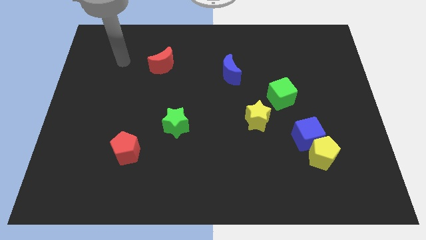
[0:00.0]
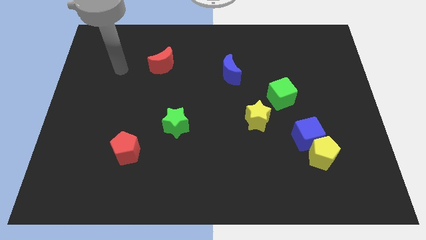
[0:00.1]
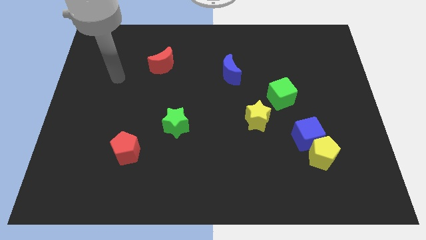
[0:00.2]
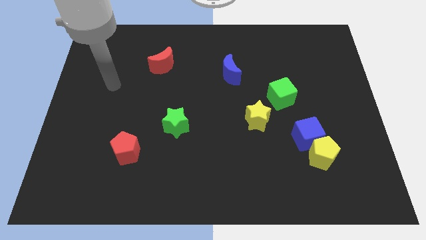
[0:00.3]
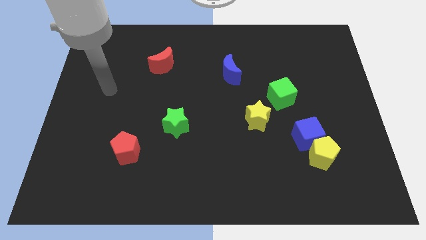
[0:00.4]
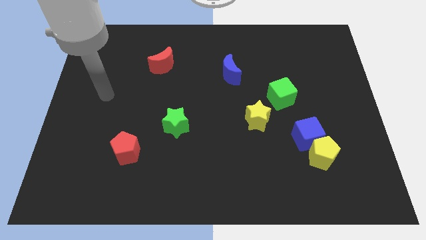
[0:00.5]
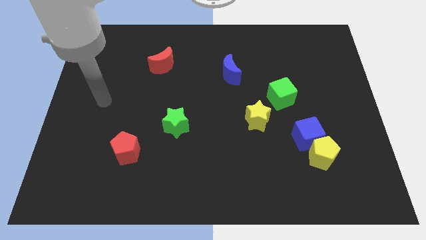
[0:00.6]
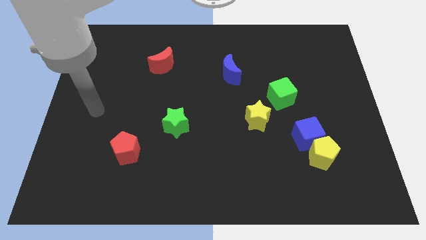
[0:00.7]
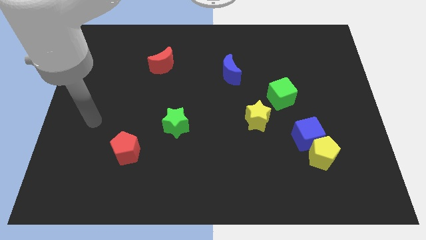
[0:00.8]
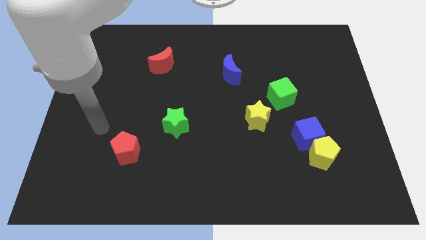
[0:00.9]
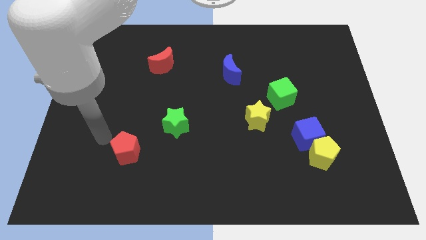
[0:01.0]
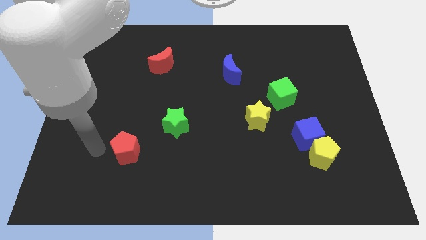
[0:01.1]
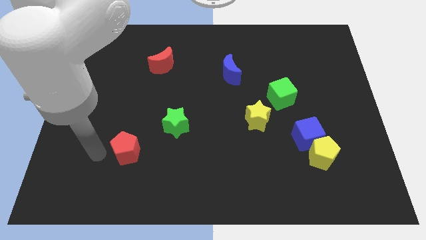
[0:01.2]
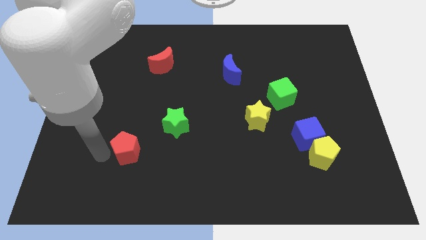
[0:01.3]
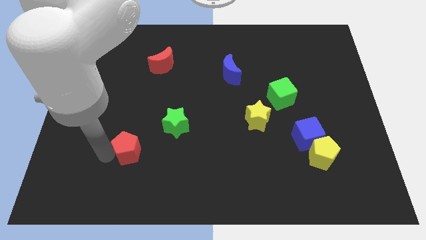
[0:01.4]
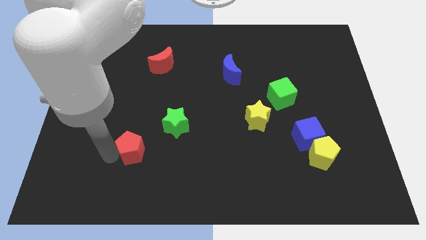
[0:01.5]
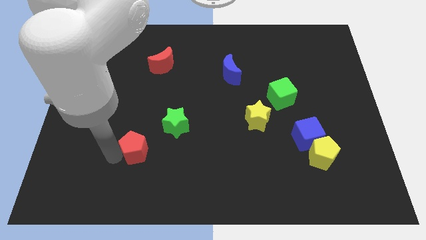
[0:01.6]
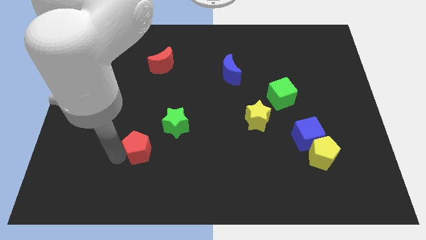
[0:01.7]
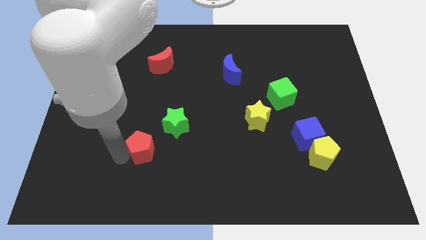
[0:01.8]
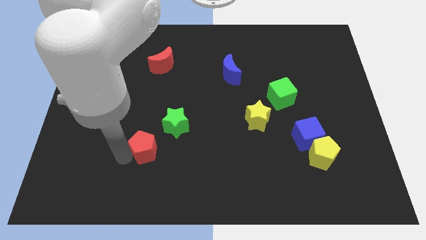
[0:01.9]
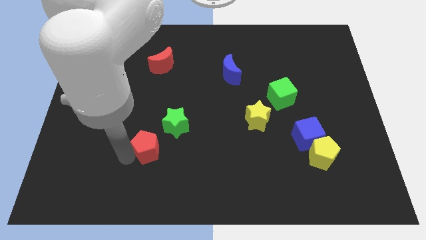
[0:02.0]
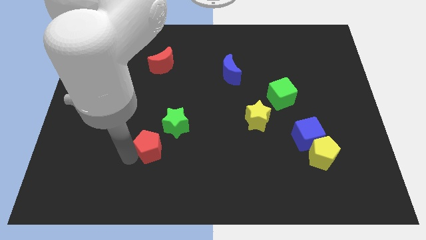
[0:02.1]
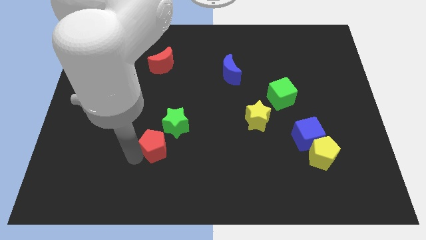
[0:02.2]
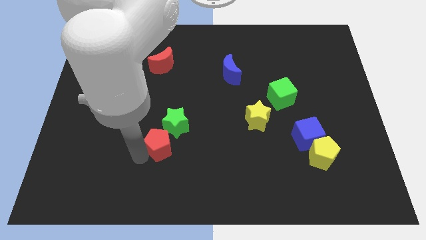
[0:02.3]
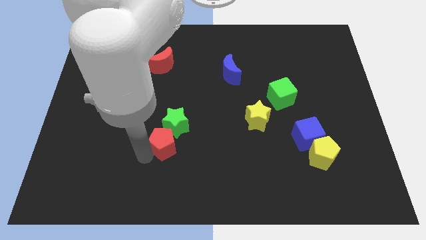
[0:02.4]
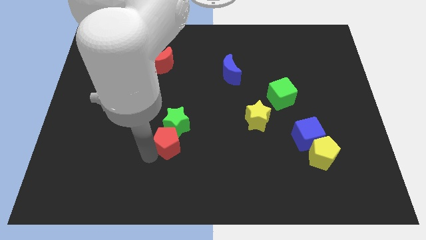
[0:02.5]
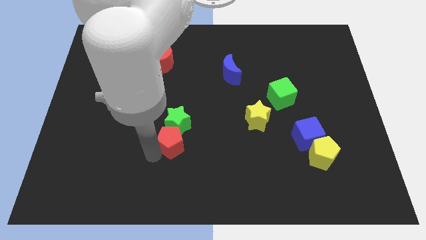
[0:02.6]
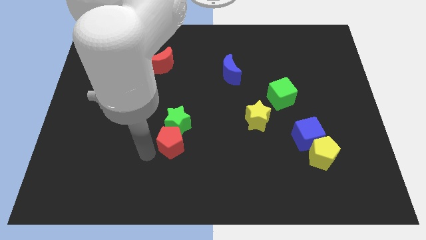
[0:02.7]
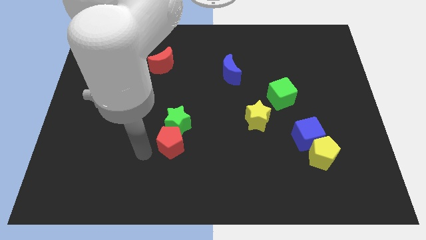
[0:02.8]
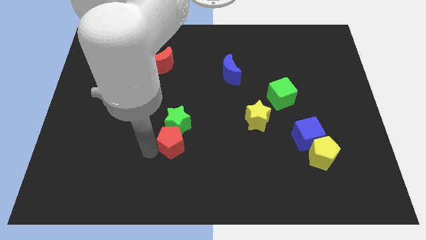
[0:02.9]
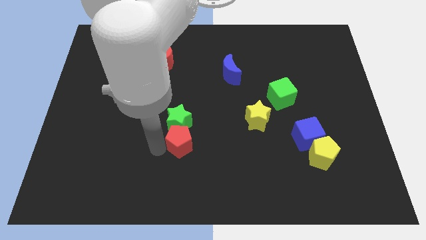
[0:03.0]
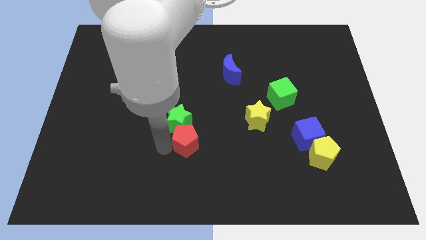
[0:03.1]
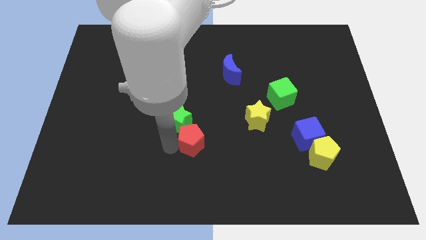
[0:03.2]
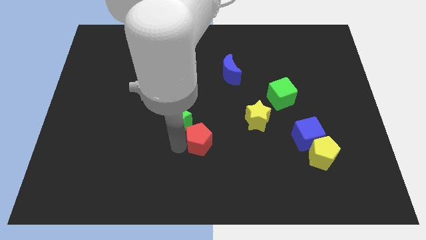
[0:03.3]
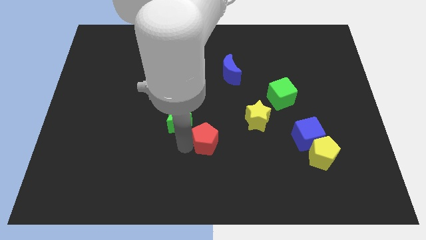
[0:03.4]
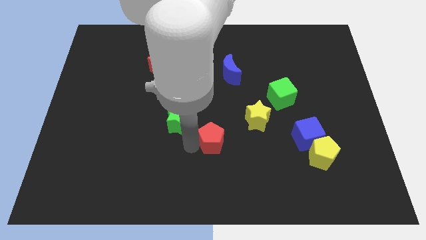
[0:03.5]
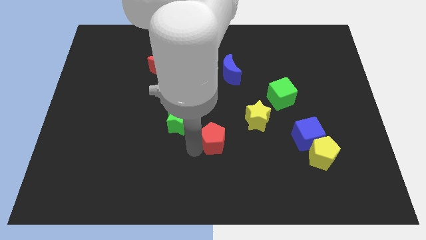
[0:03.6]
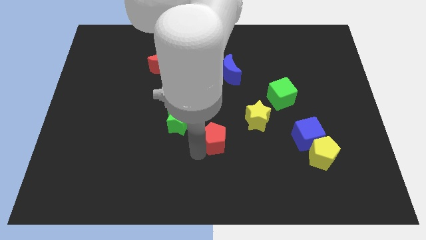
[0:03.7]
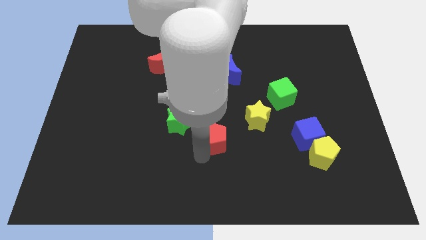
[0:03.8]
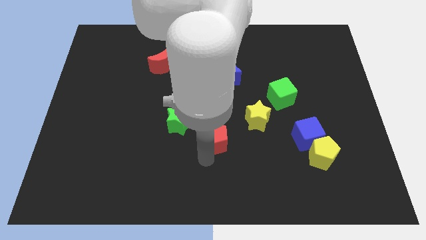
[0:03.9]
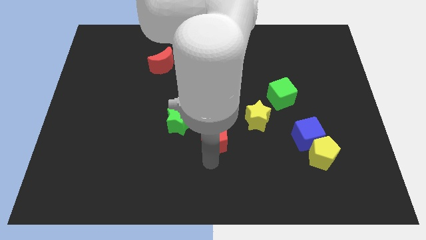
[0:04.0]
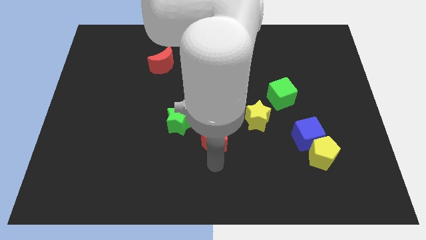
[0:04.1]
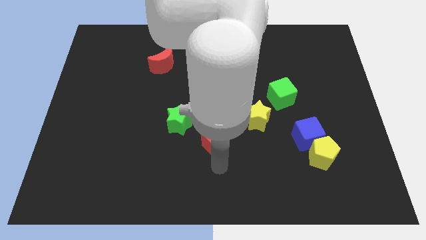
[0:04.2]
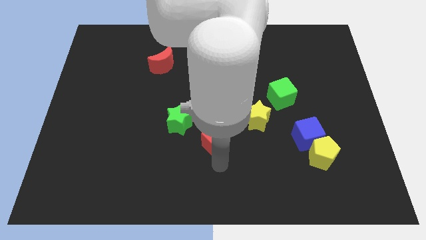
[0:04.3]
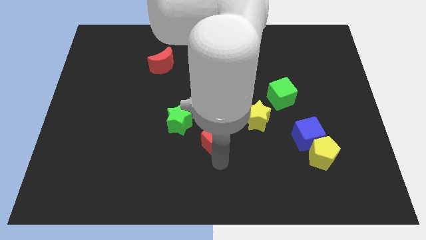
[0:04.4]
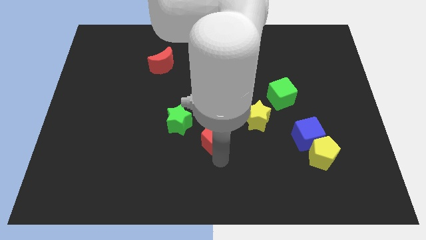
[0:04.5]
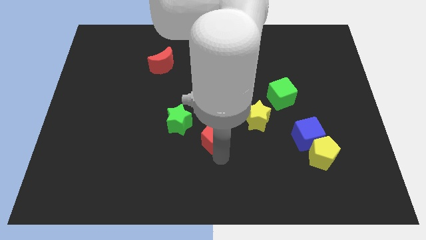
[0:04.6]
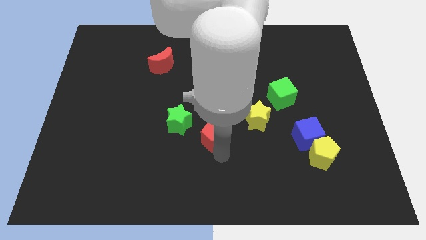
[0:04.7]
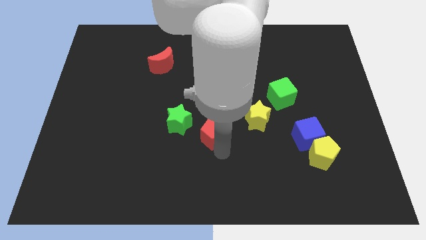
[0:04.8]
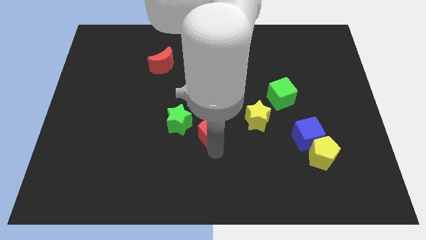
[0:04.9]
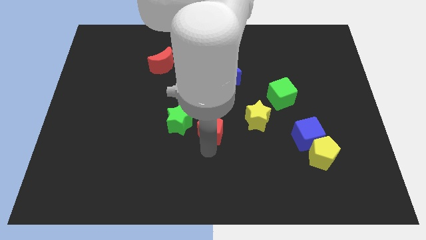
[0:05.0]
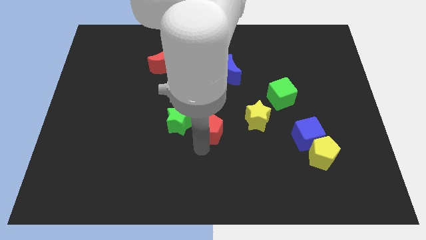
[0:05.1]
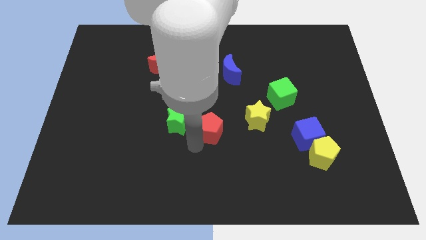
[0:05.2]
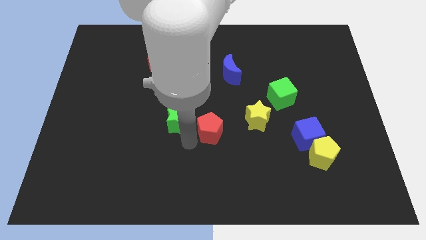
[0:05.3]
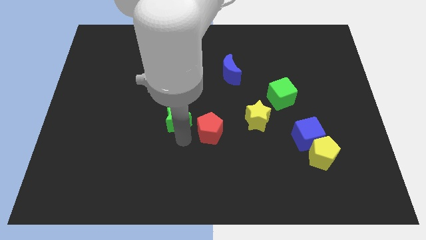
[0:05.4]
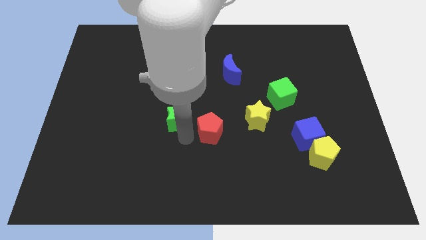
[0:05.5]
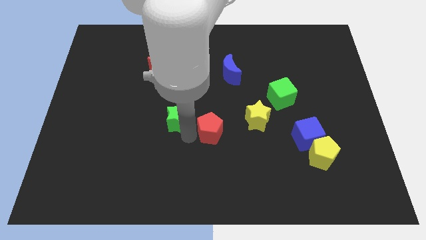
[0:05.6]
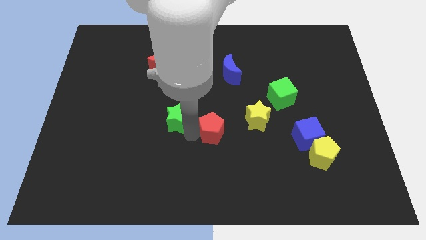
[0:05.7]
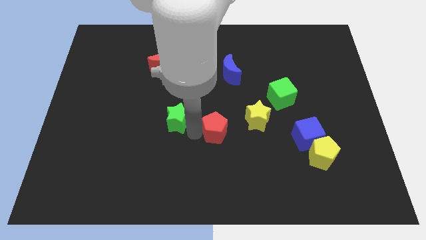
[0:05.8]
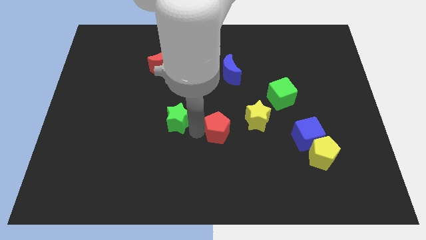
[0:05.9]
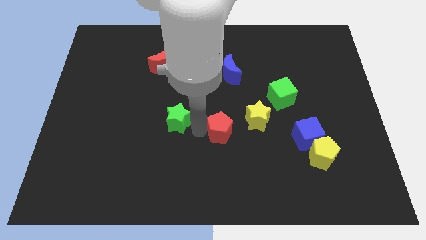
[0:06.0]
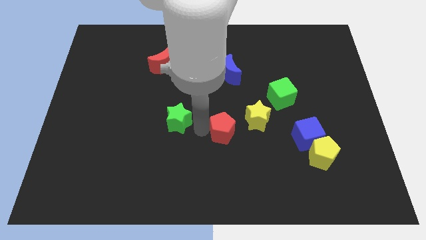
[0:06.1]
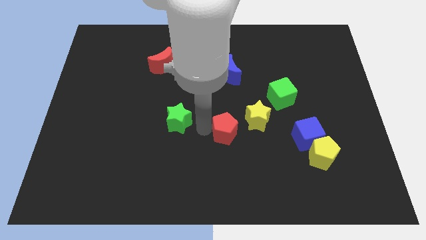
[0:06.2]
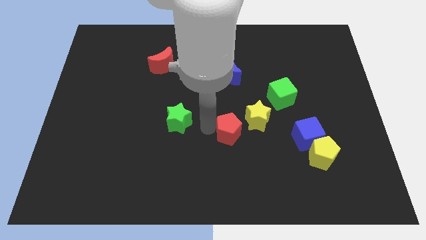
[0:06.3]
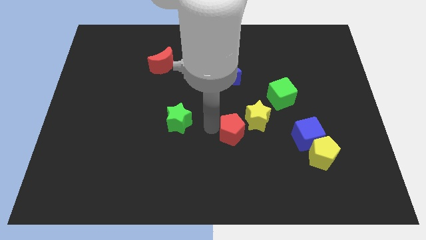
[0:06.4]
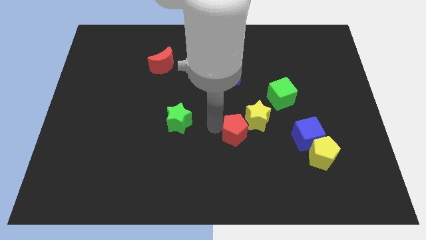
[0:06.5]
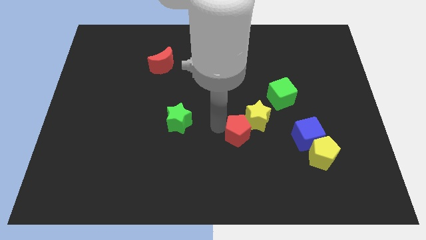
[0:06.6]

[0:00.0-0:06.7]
move the red pentagon close to the yellow star
